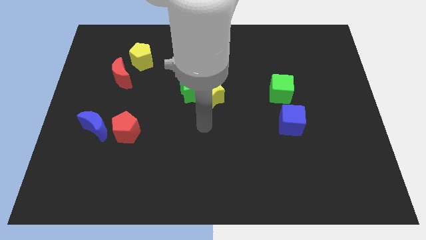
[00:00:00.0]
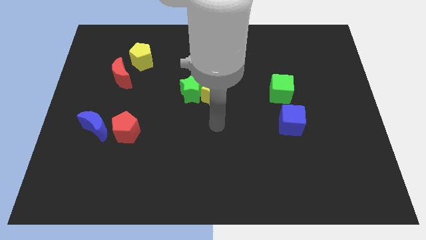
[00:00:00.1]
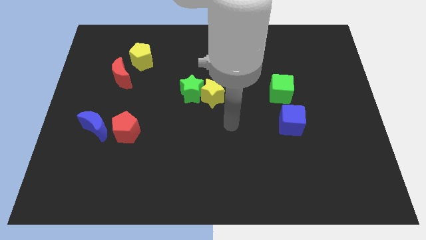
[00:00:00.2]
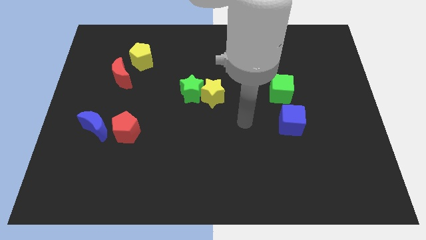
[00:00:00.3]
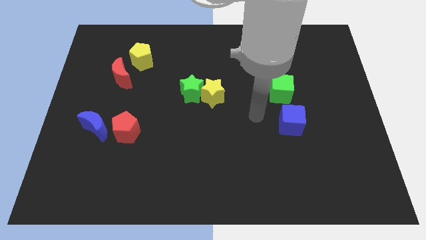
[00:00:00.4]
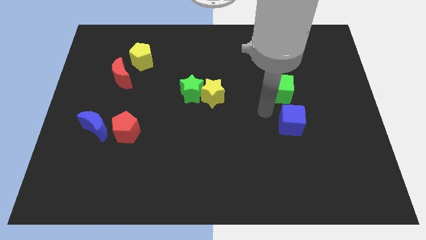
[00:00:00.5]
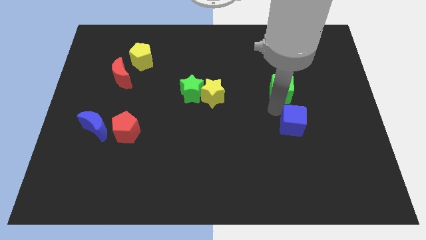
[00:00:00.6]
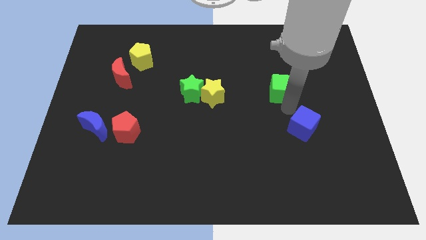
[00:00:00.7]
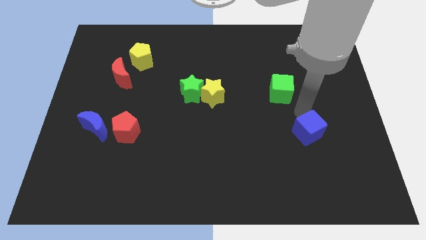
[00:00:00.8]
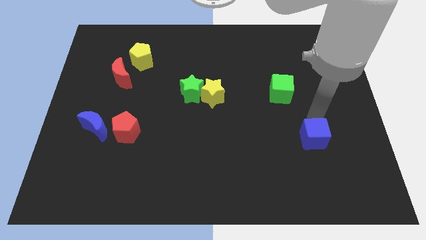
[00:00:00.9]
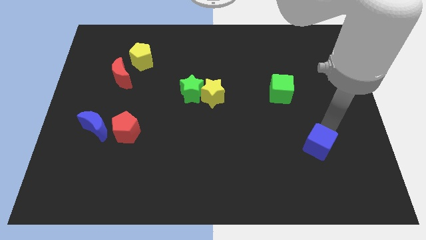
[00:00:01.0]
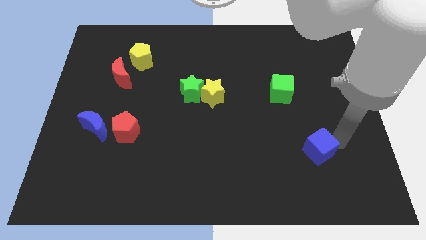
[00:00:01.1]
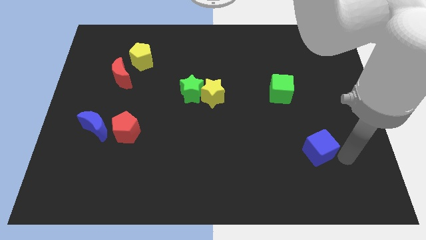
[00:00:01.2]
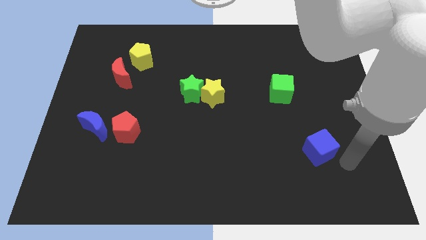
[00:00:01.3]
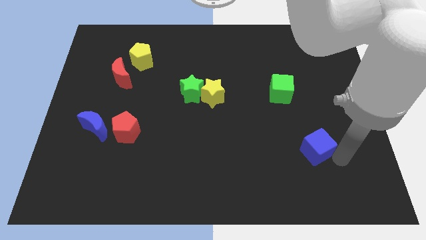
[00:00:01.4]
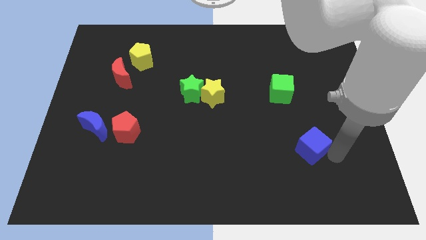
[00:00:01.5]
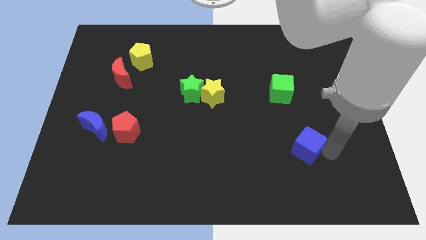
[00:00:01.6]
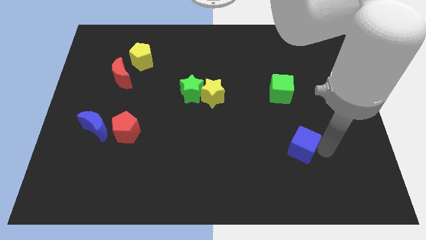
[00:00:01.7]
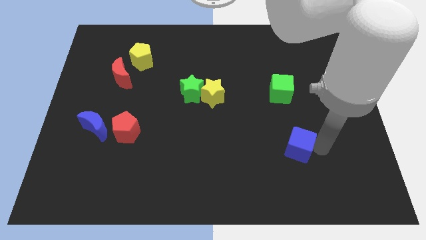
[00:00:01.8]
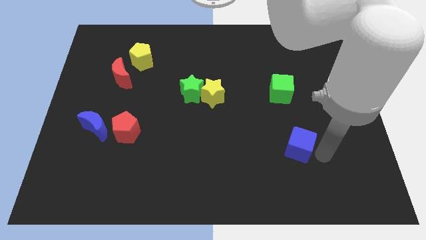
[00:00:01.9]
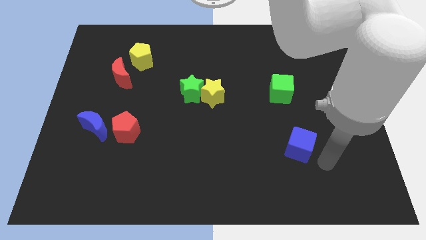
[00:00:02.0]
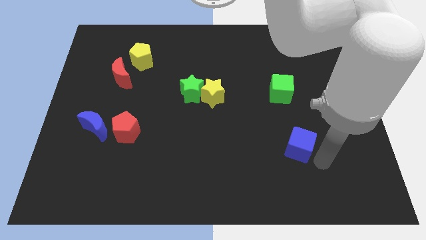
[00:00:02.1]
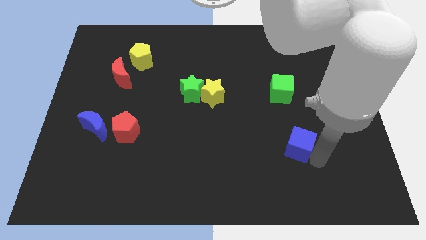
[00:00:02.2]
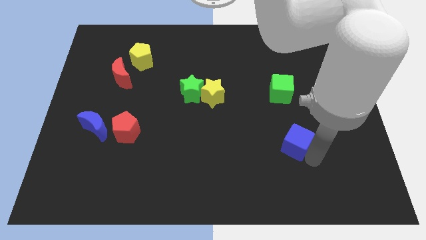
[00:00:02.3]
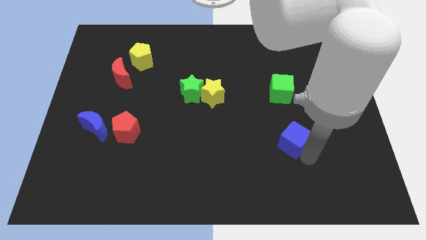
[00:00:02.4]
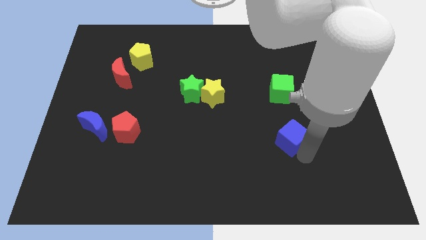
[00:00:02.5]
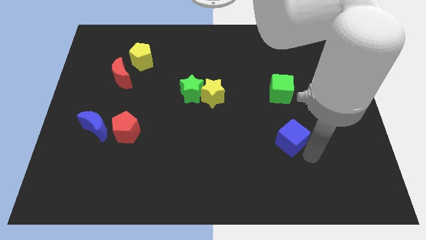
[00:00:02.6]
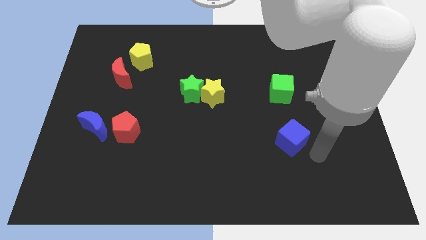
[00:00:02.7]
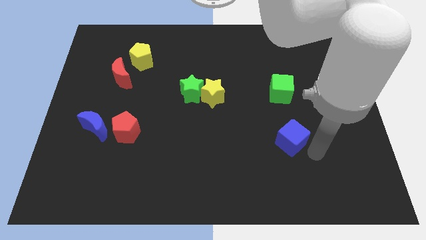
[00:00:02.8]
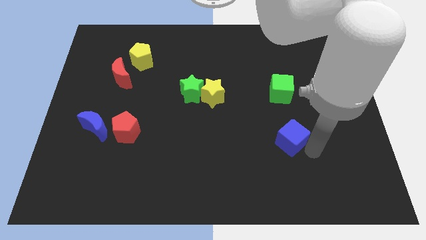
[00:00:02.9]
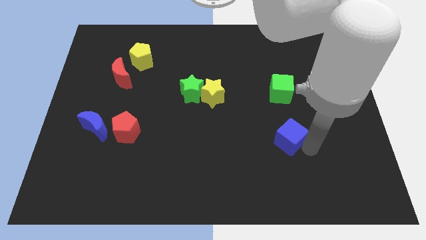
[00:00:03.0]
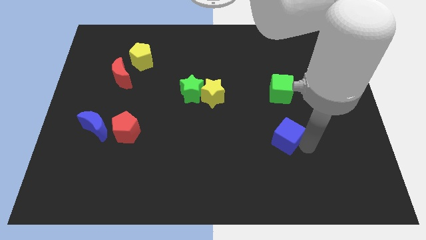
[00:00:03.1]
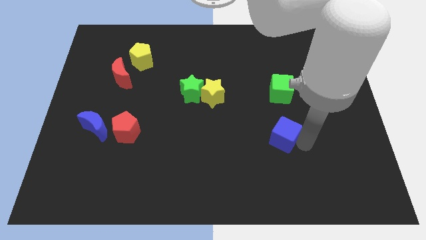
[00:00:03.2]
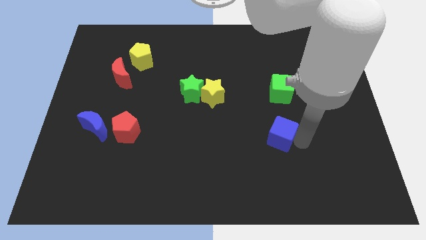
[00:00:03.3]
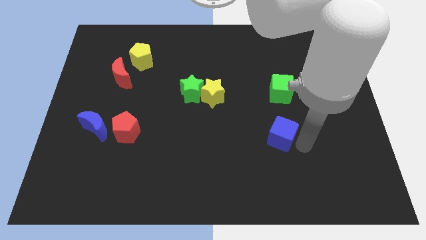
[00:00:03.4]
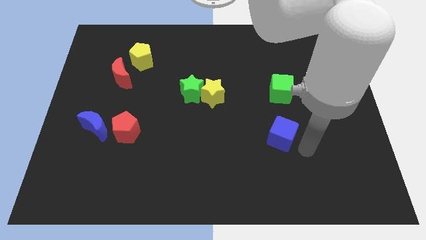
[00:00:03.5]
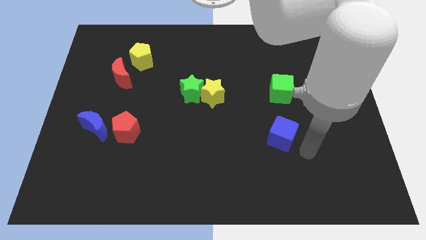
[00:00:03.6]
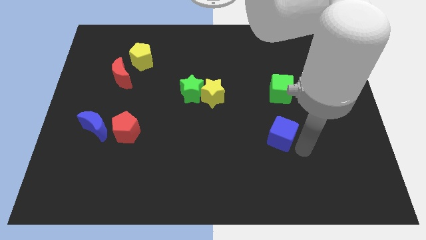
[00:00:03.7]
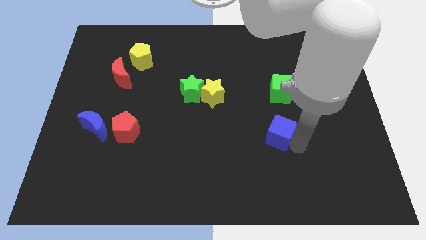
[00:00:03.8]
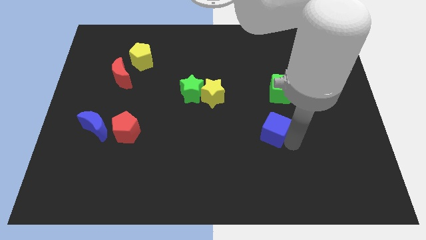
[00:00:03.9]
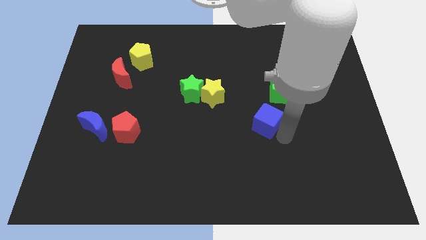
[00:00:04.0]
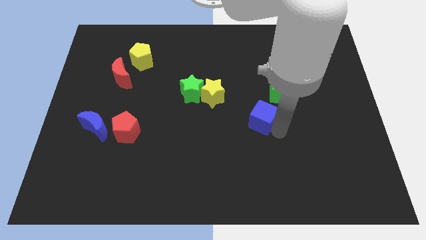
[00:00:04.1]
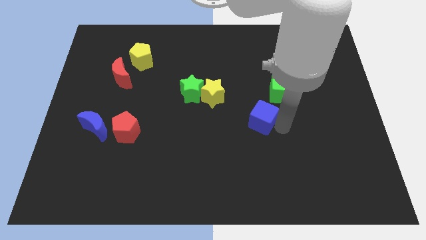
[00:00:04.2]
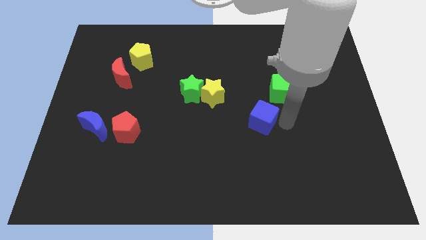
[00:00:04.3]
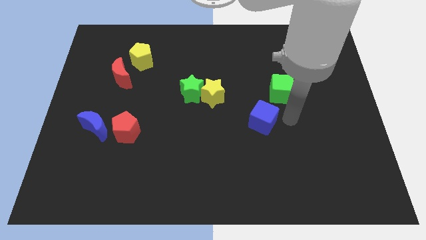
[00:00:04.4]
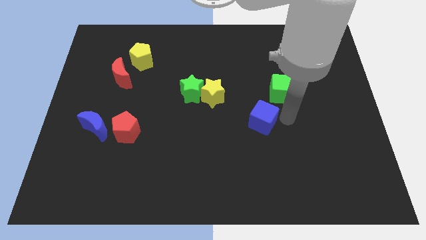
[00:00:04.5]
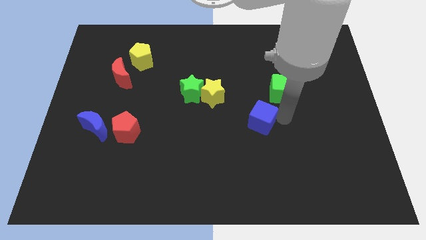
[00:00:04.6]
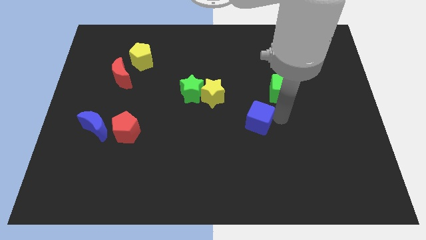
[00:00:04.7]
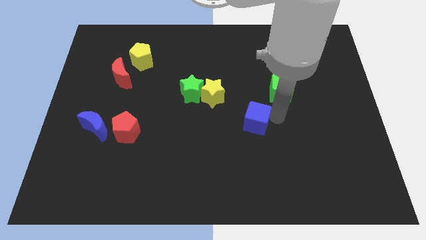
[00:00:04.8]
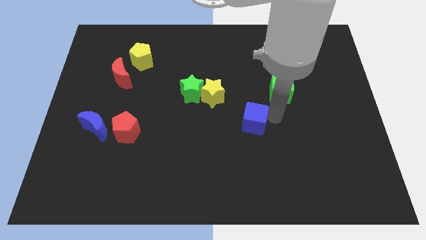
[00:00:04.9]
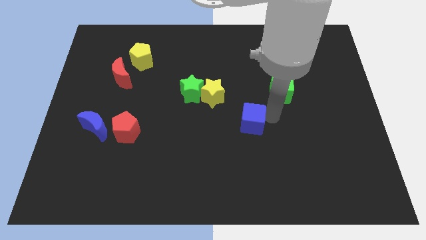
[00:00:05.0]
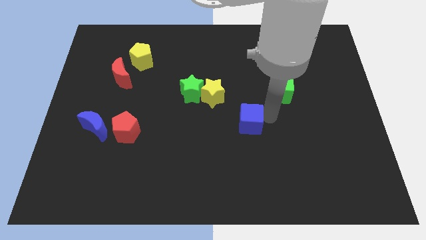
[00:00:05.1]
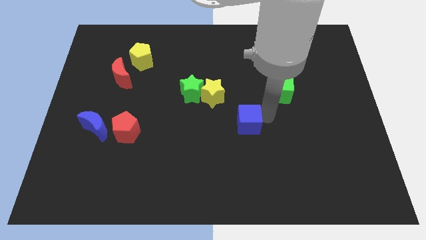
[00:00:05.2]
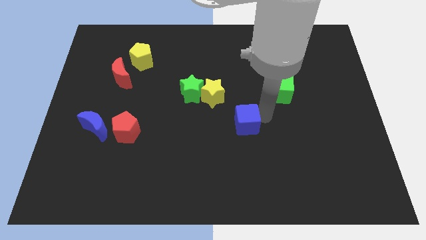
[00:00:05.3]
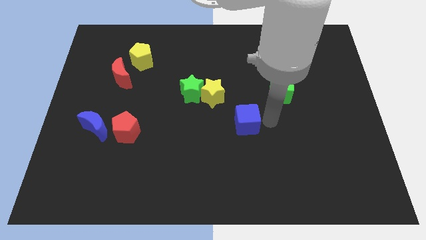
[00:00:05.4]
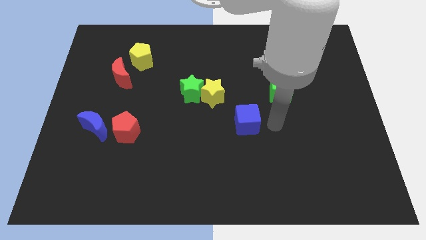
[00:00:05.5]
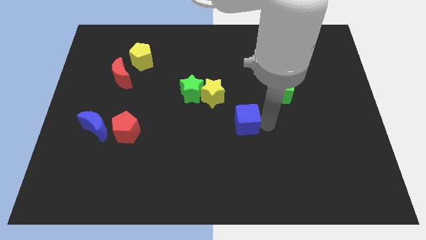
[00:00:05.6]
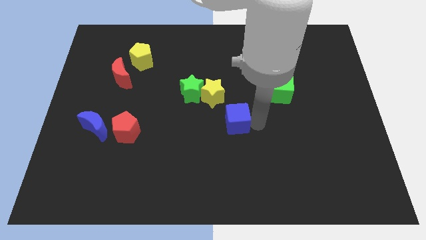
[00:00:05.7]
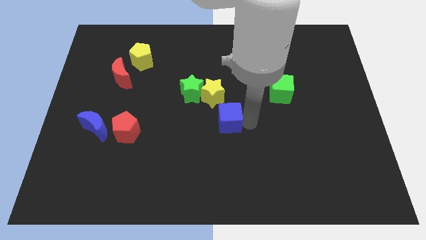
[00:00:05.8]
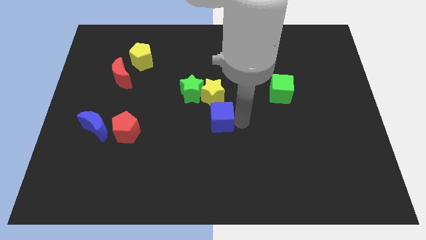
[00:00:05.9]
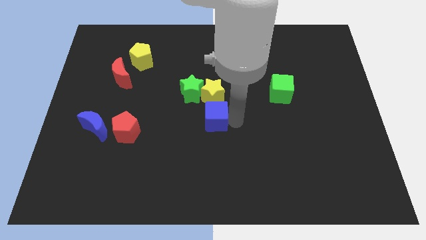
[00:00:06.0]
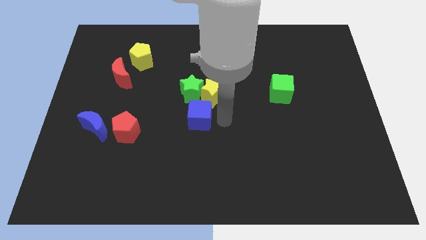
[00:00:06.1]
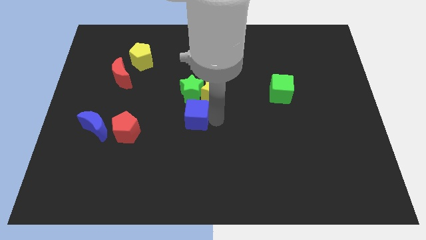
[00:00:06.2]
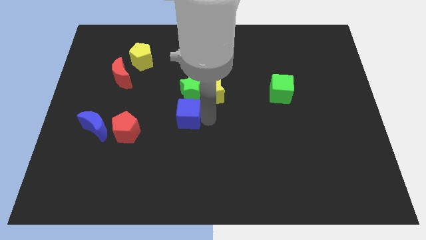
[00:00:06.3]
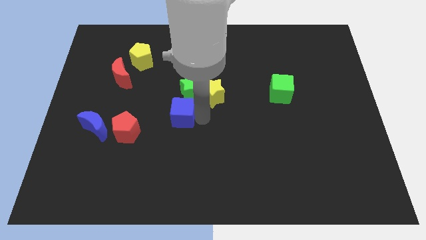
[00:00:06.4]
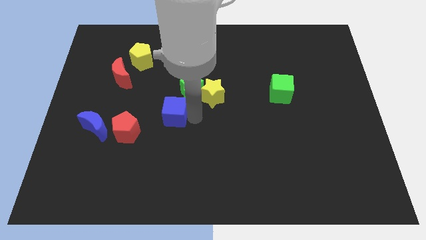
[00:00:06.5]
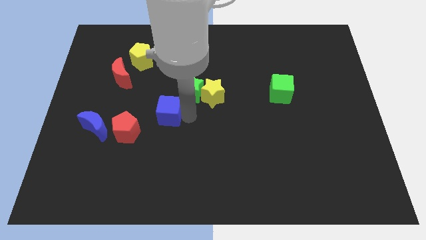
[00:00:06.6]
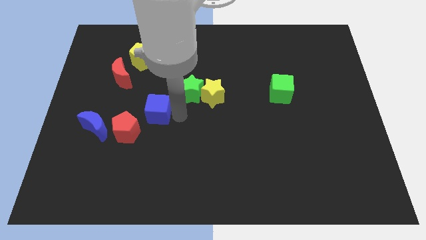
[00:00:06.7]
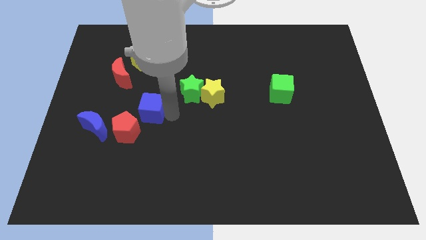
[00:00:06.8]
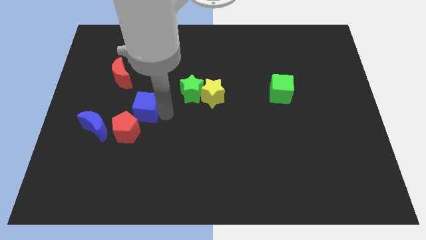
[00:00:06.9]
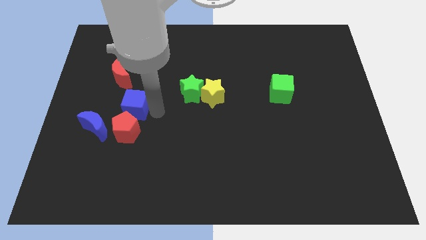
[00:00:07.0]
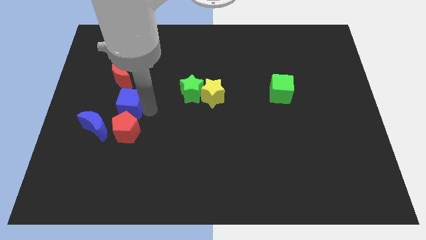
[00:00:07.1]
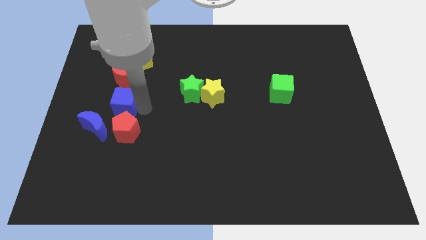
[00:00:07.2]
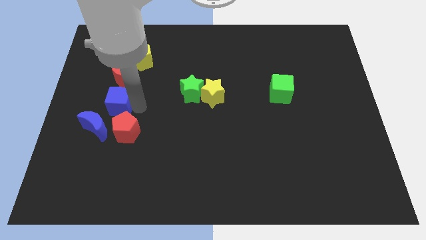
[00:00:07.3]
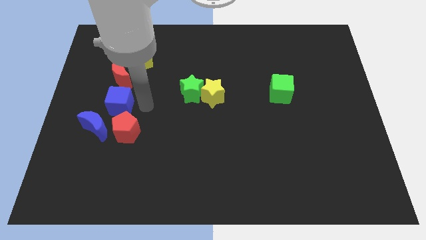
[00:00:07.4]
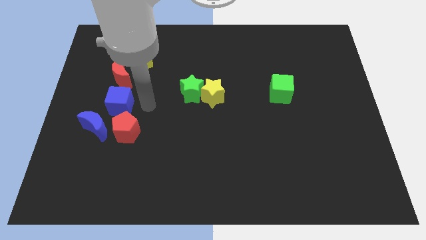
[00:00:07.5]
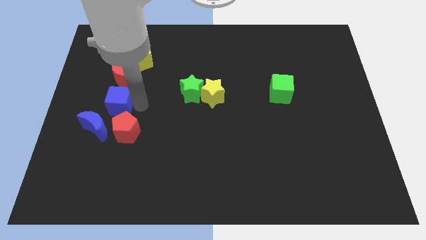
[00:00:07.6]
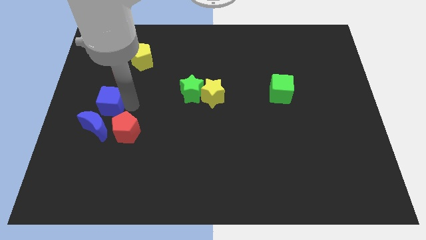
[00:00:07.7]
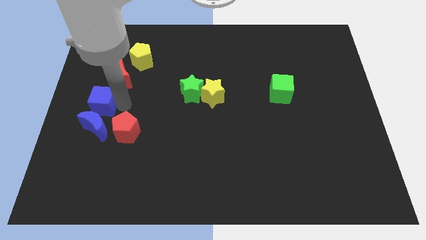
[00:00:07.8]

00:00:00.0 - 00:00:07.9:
slide the blue cube to the left side of the board
